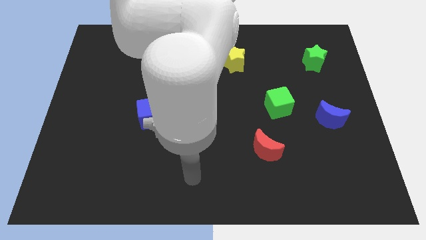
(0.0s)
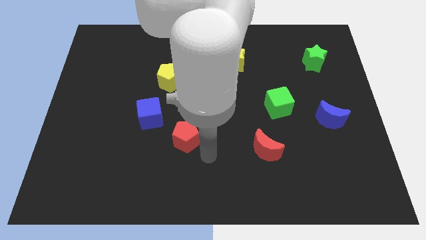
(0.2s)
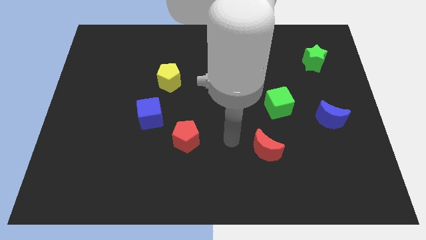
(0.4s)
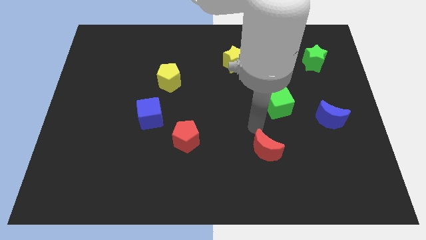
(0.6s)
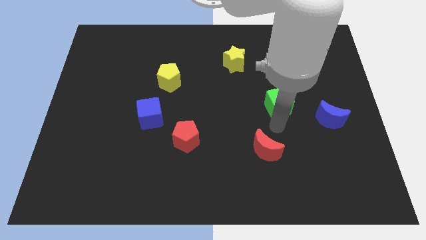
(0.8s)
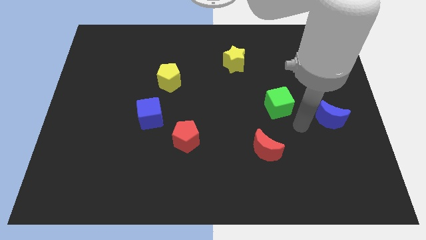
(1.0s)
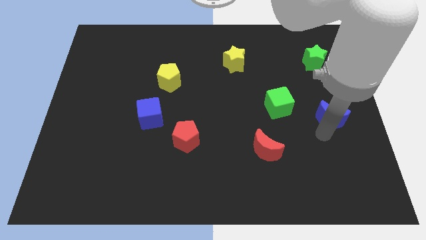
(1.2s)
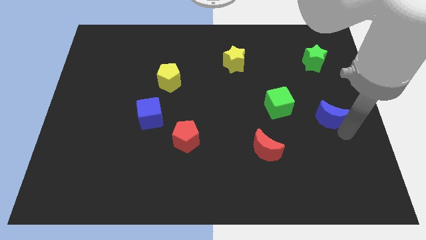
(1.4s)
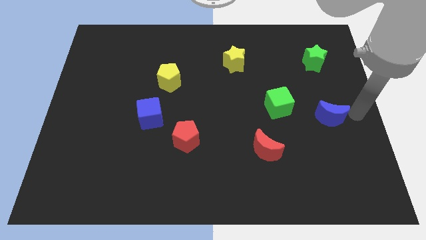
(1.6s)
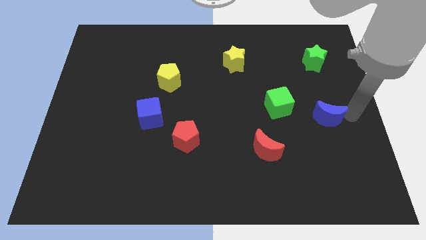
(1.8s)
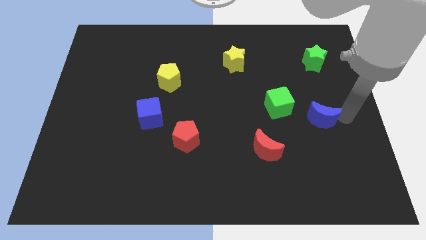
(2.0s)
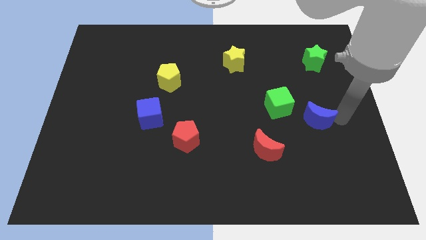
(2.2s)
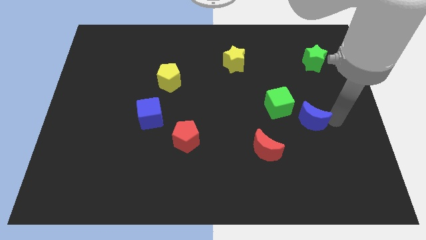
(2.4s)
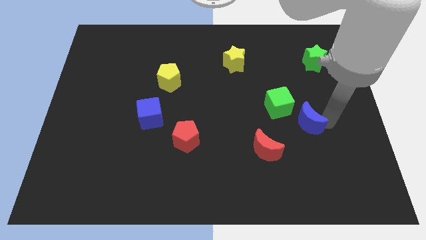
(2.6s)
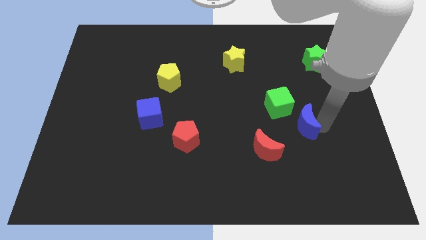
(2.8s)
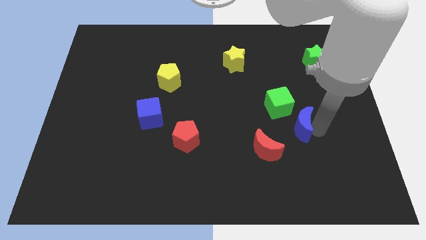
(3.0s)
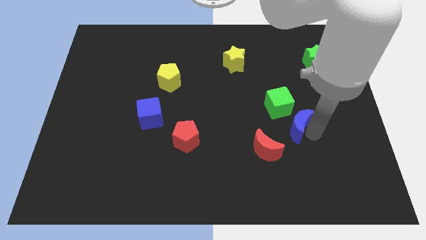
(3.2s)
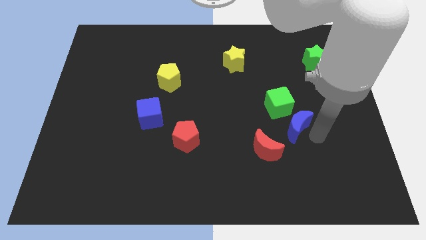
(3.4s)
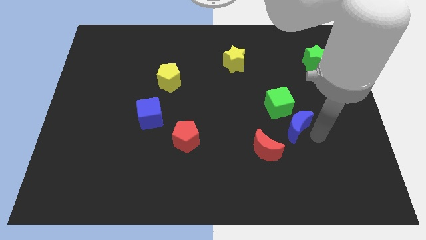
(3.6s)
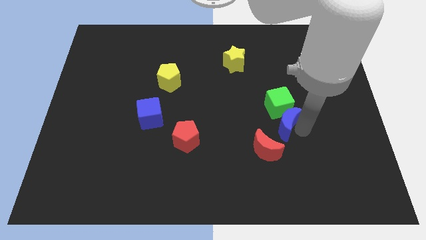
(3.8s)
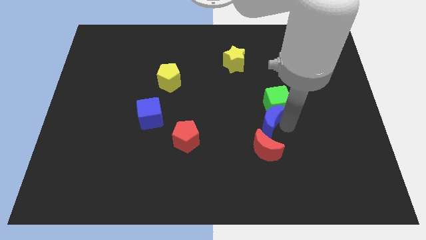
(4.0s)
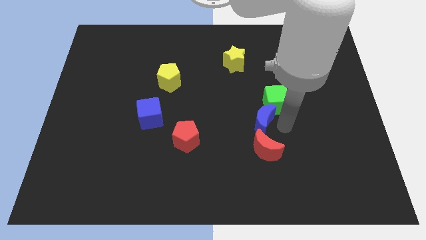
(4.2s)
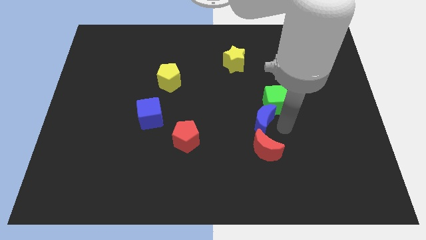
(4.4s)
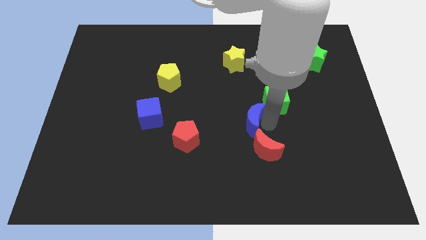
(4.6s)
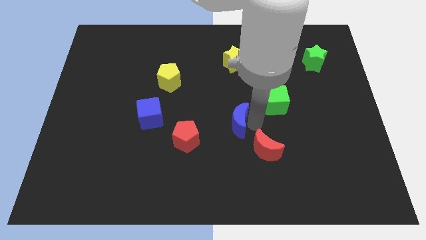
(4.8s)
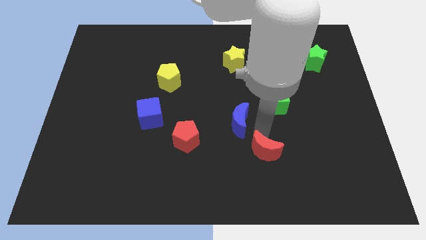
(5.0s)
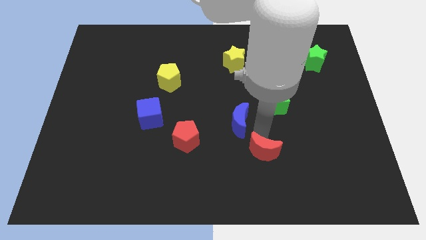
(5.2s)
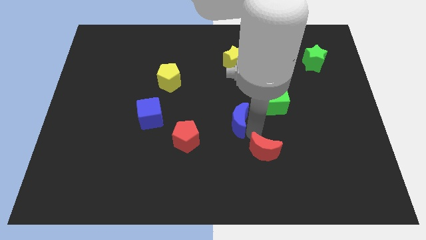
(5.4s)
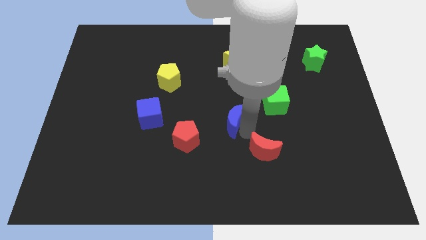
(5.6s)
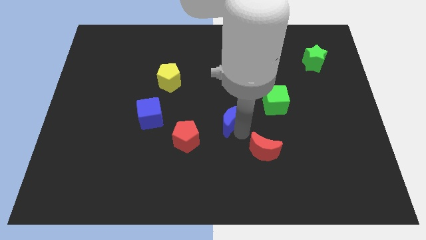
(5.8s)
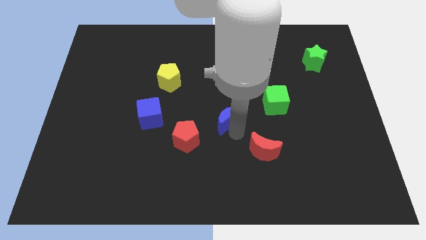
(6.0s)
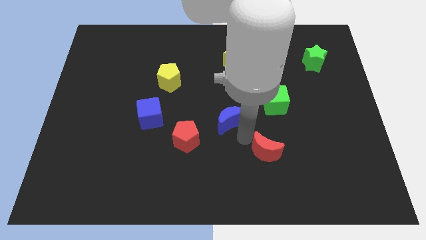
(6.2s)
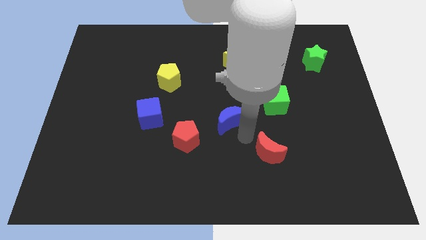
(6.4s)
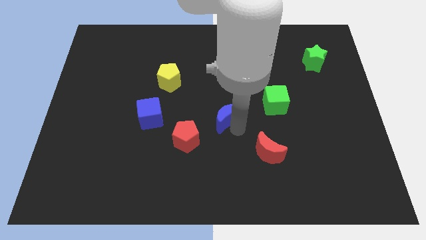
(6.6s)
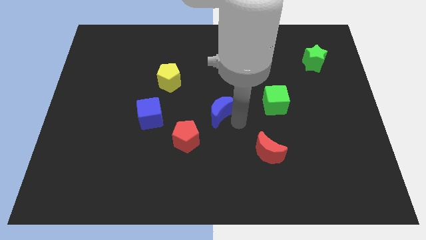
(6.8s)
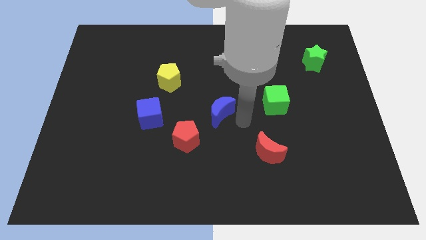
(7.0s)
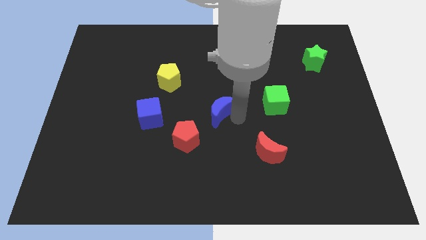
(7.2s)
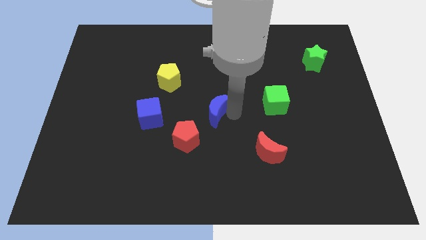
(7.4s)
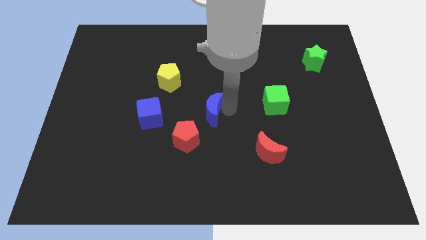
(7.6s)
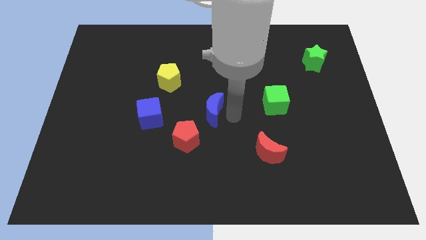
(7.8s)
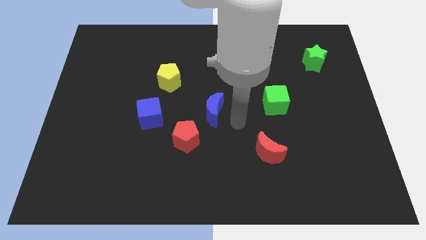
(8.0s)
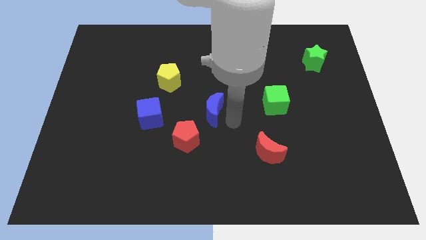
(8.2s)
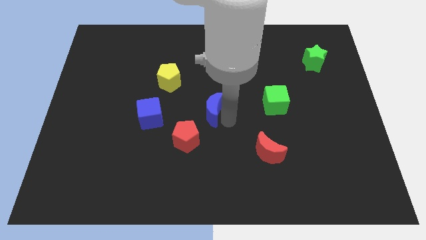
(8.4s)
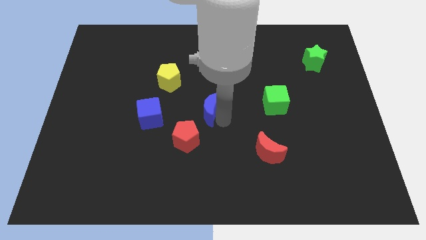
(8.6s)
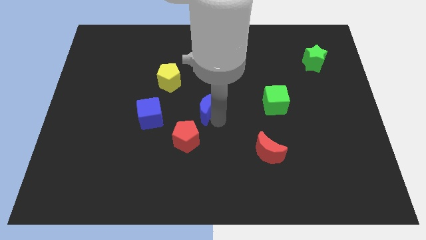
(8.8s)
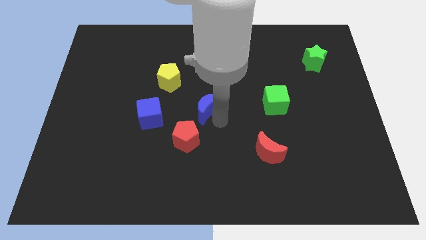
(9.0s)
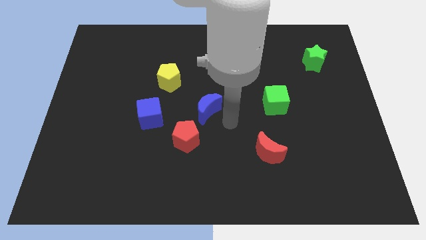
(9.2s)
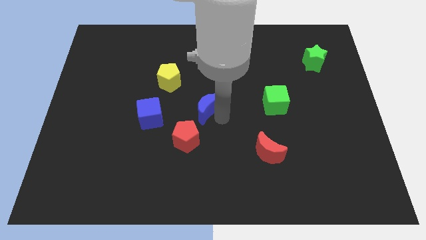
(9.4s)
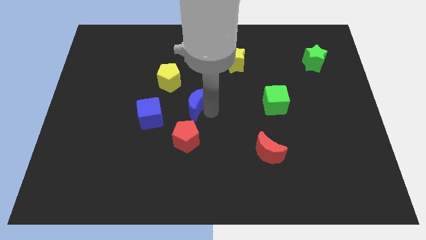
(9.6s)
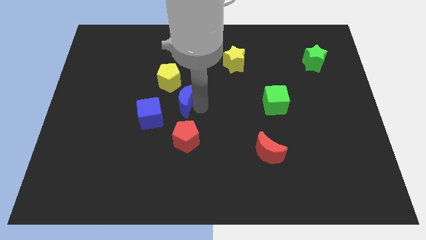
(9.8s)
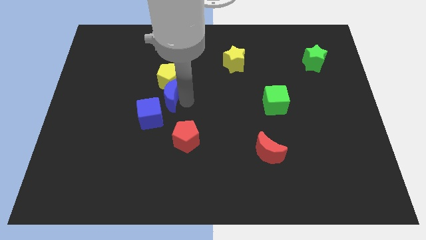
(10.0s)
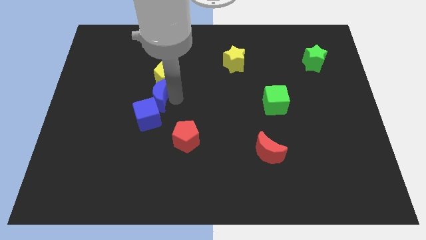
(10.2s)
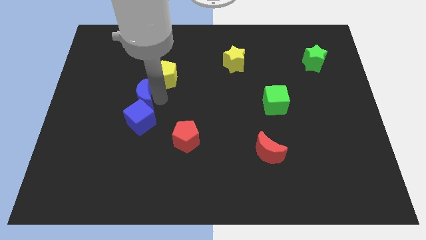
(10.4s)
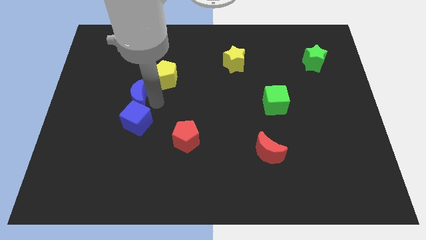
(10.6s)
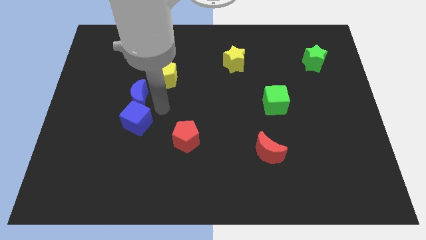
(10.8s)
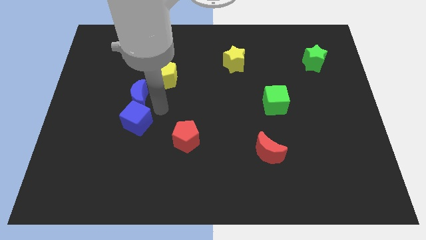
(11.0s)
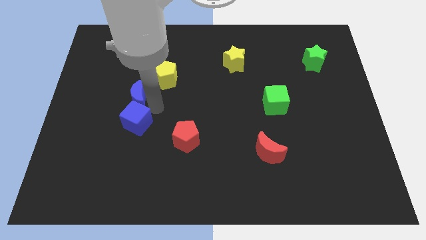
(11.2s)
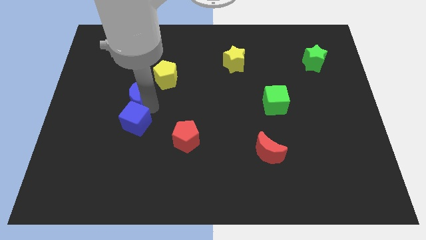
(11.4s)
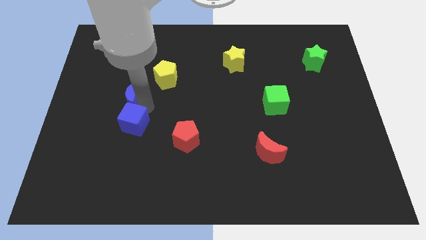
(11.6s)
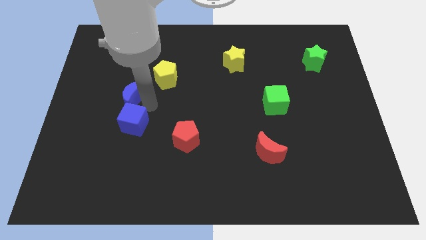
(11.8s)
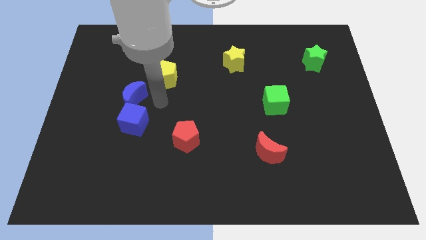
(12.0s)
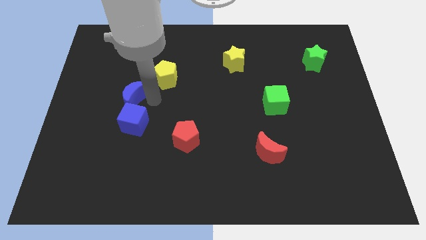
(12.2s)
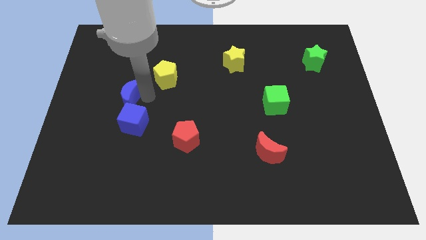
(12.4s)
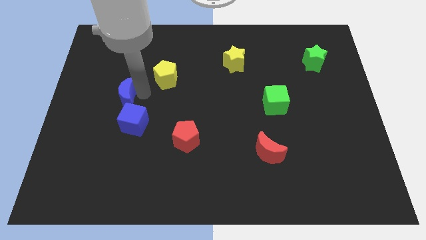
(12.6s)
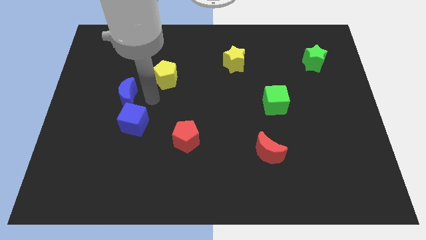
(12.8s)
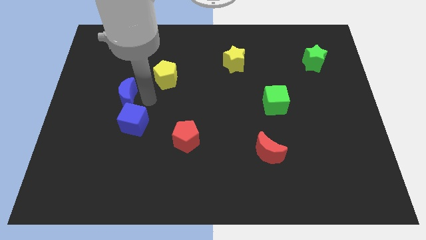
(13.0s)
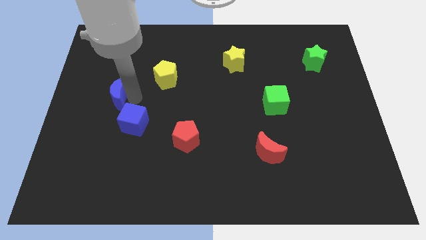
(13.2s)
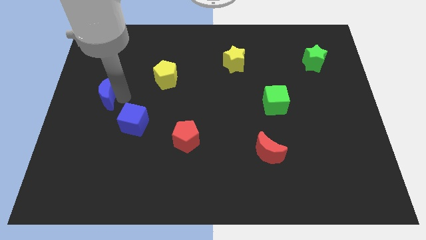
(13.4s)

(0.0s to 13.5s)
move the blue moon to the left side of the board
